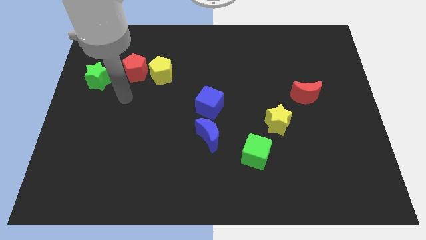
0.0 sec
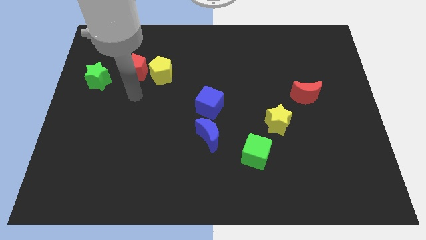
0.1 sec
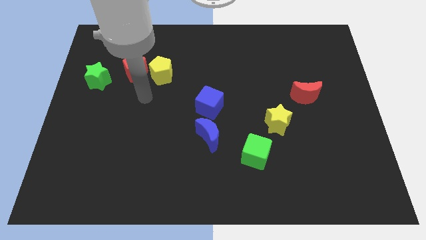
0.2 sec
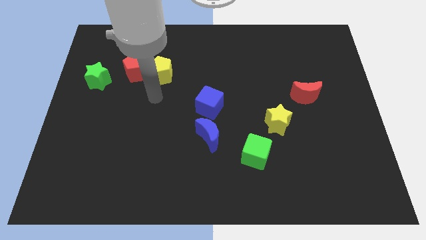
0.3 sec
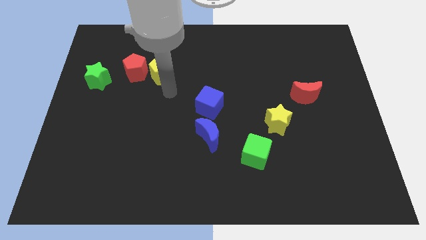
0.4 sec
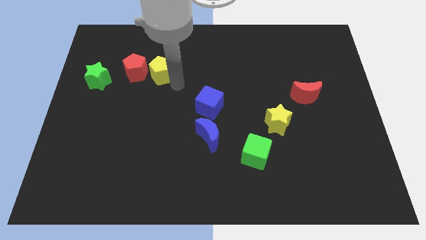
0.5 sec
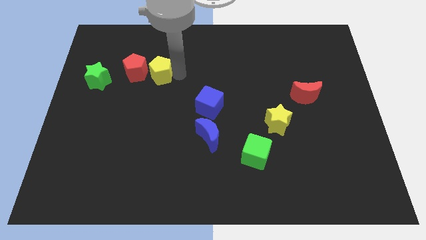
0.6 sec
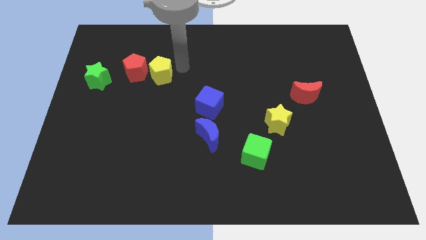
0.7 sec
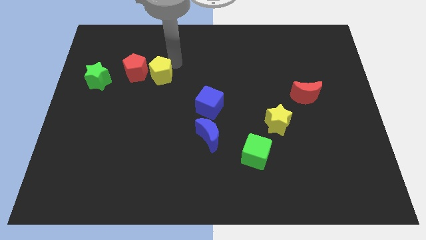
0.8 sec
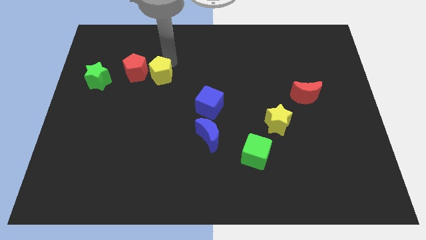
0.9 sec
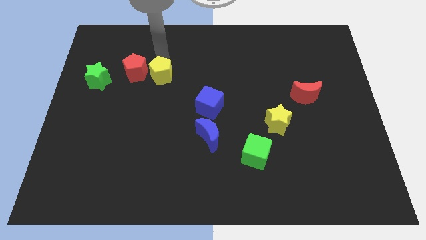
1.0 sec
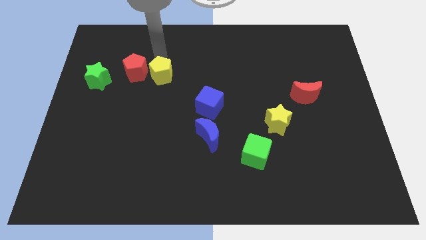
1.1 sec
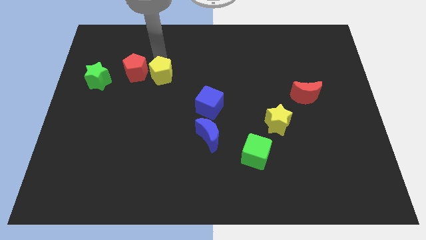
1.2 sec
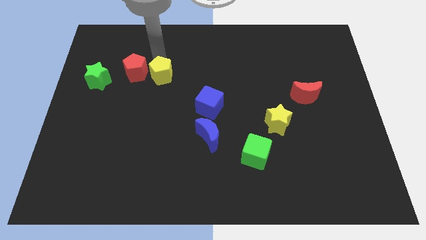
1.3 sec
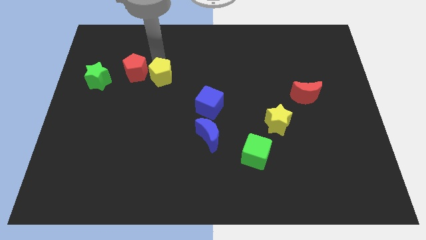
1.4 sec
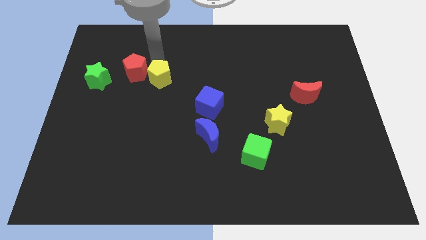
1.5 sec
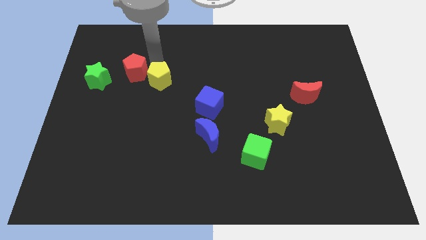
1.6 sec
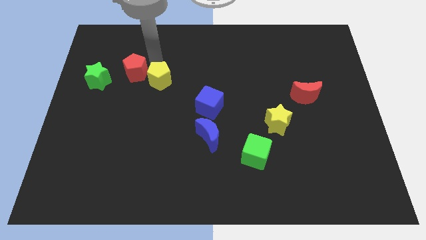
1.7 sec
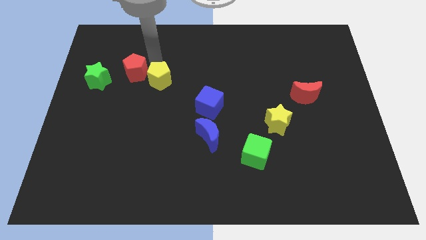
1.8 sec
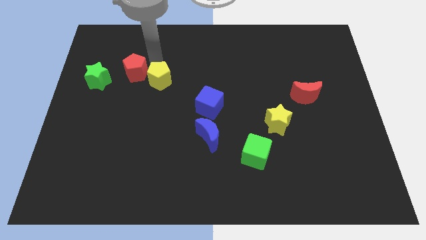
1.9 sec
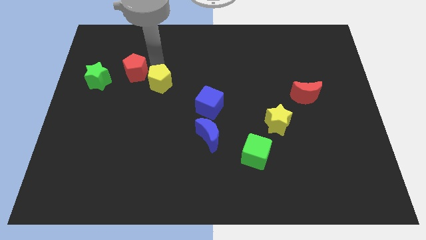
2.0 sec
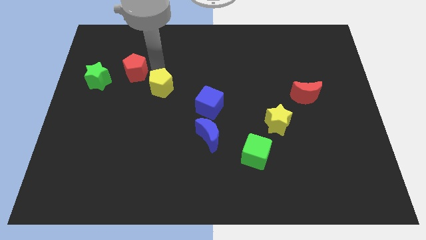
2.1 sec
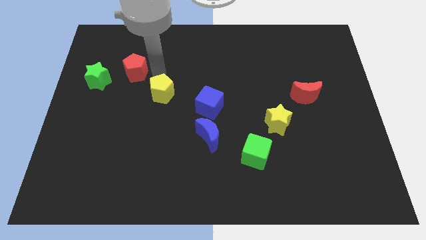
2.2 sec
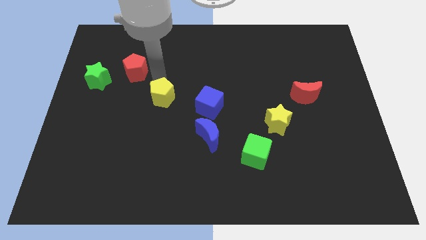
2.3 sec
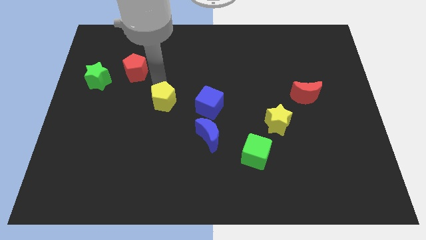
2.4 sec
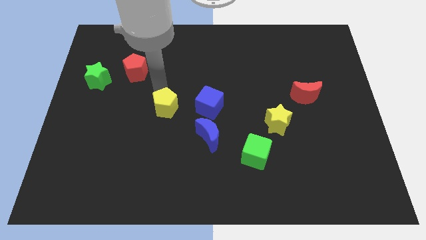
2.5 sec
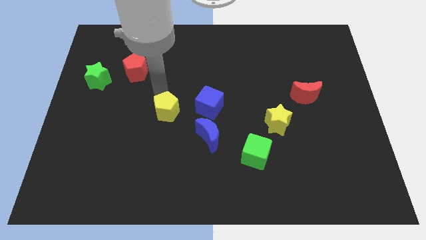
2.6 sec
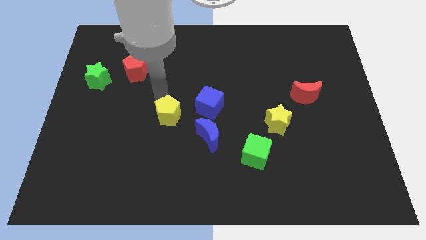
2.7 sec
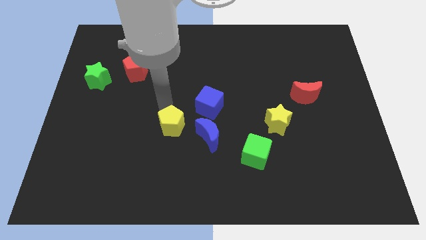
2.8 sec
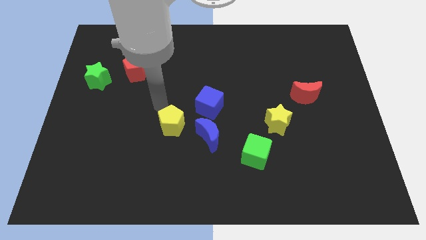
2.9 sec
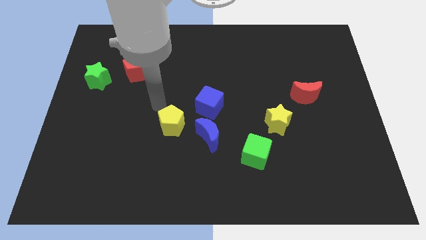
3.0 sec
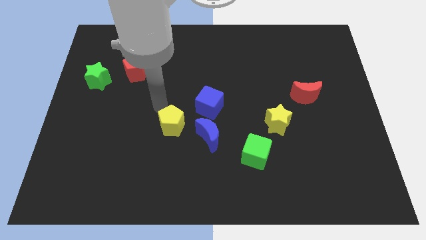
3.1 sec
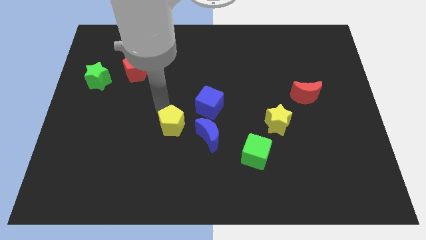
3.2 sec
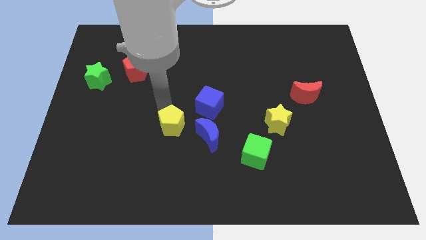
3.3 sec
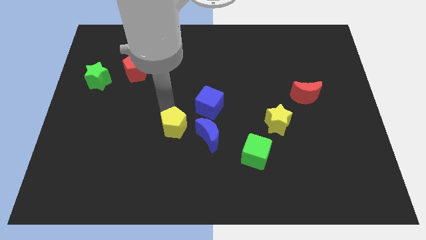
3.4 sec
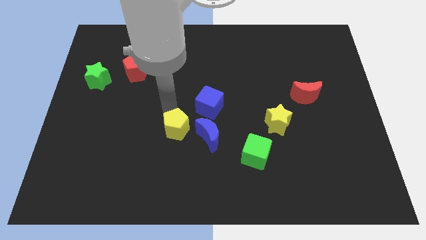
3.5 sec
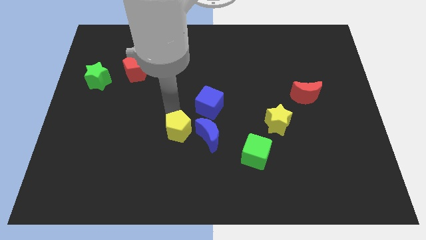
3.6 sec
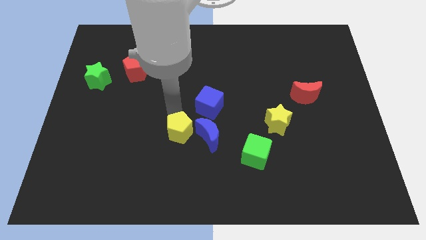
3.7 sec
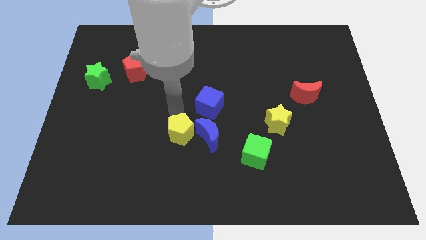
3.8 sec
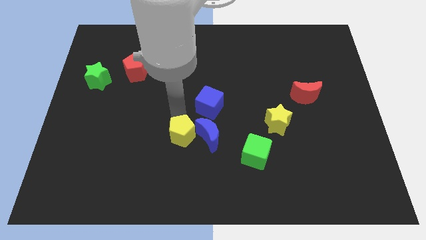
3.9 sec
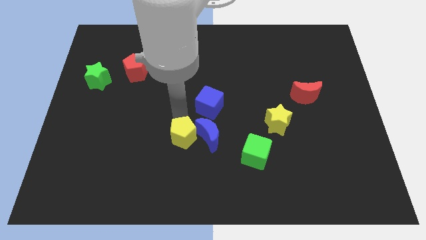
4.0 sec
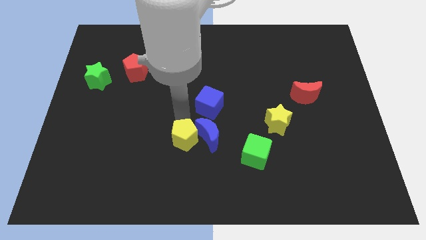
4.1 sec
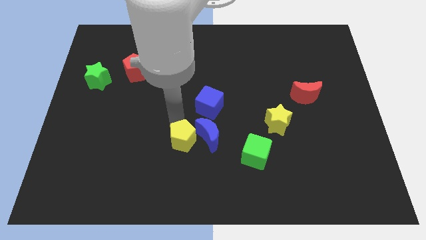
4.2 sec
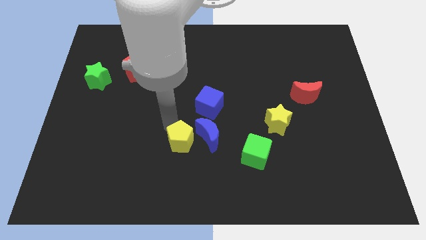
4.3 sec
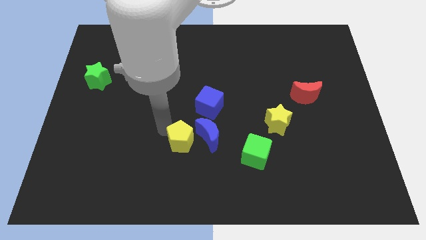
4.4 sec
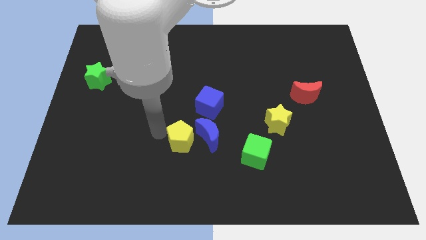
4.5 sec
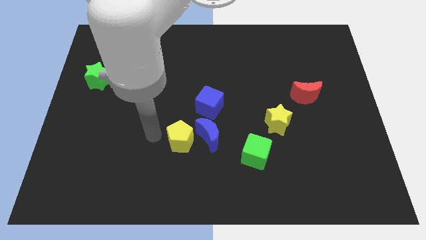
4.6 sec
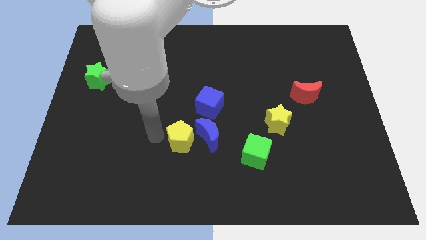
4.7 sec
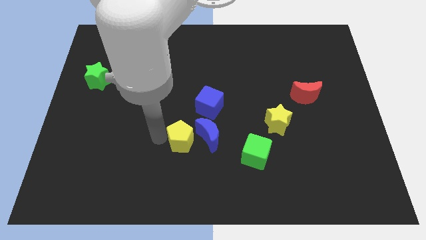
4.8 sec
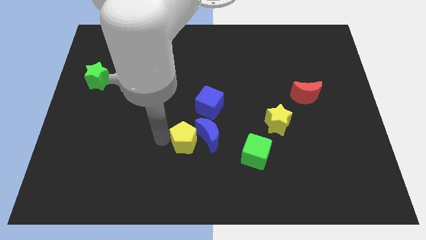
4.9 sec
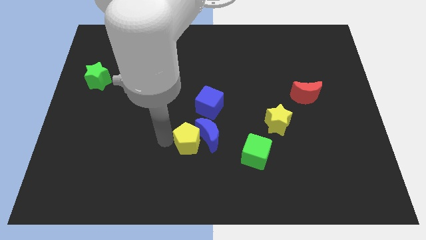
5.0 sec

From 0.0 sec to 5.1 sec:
move the yellow pentagon below the blue cube

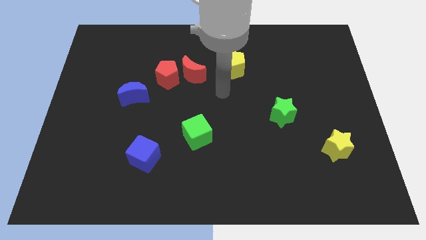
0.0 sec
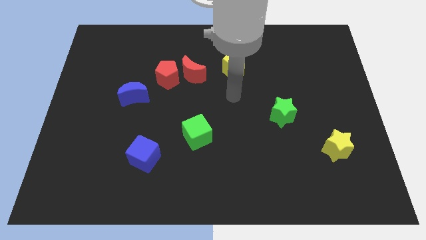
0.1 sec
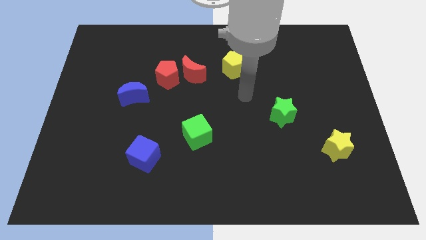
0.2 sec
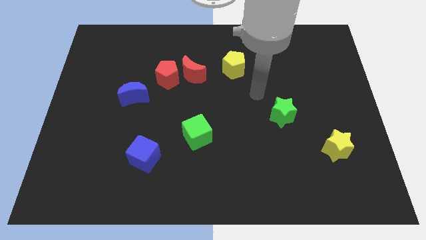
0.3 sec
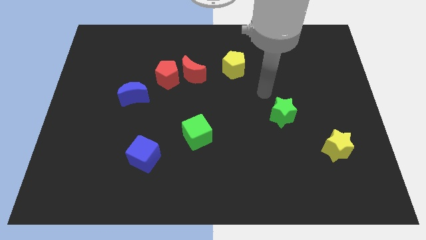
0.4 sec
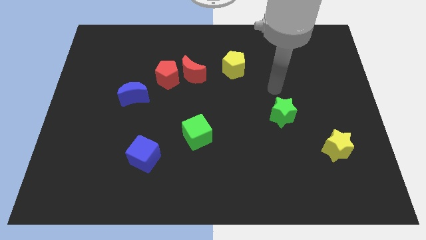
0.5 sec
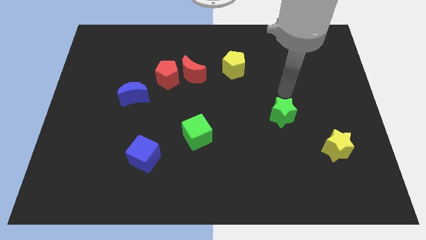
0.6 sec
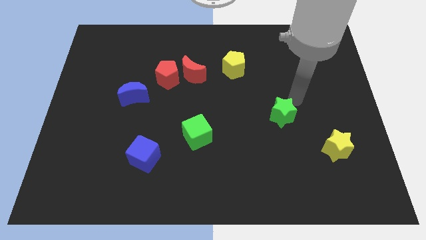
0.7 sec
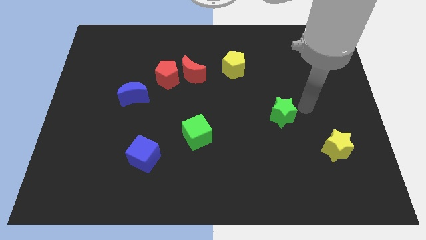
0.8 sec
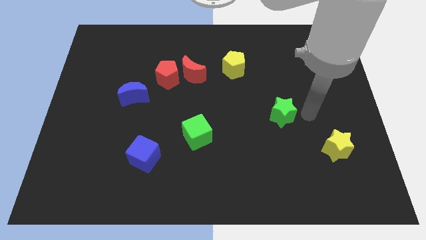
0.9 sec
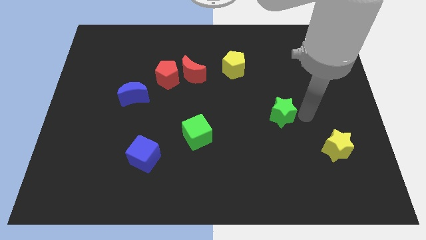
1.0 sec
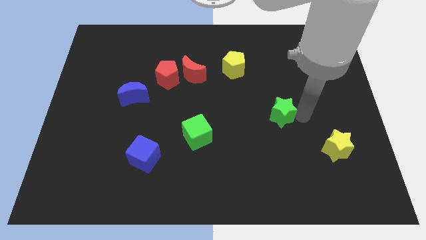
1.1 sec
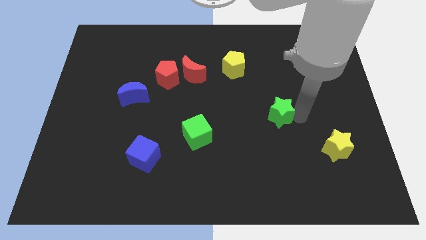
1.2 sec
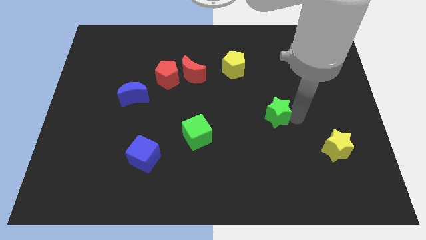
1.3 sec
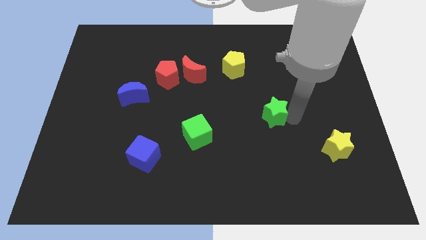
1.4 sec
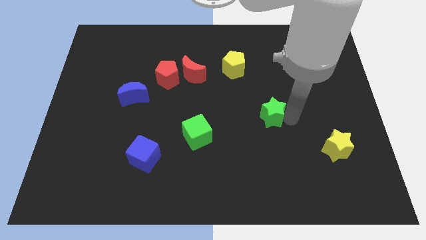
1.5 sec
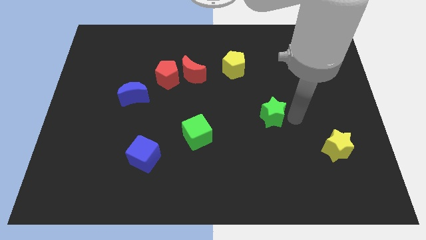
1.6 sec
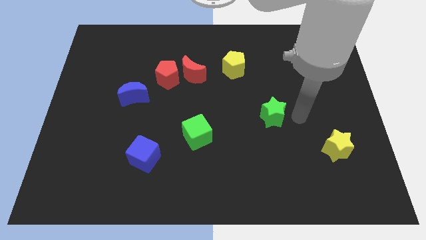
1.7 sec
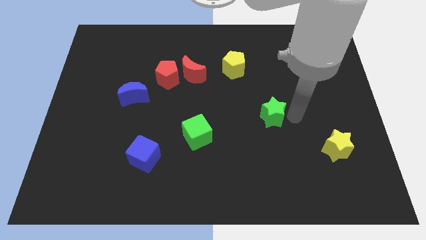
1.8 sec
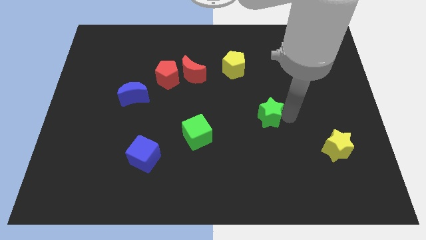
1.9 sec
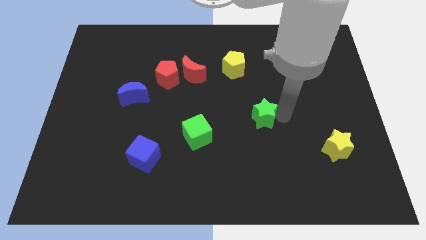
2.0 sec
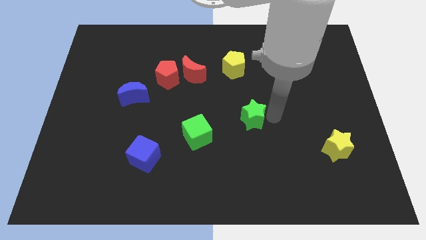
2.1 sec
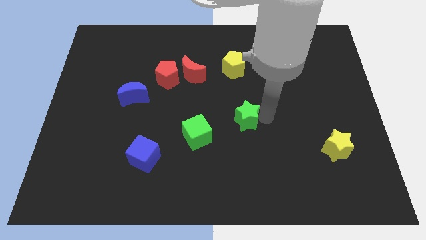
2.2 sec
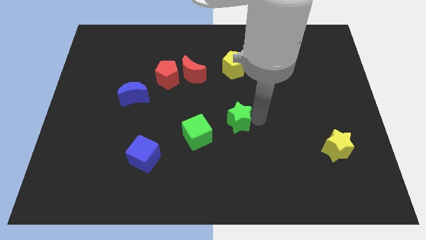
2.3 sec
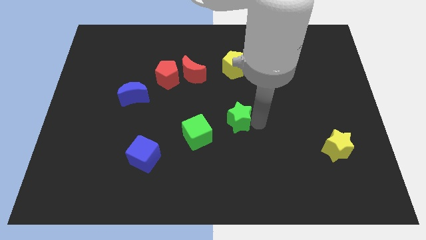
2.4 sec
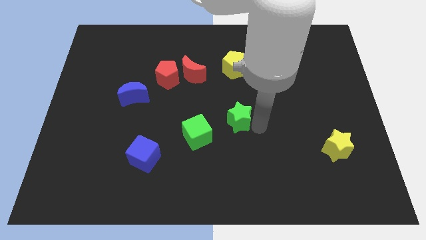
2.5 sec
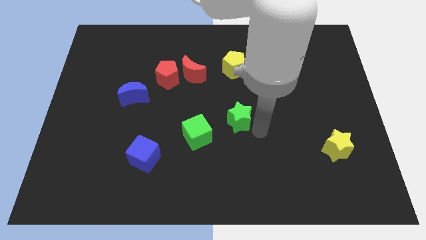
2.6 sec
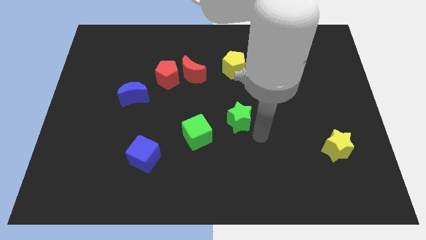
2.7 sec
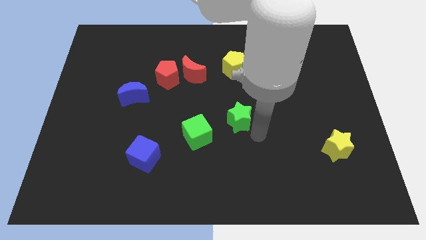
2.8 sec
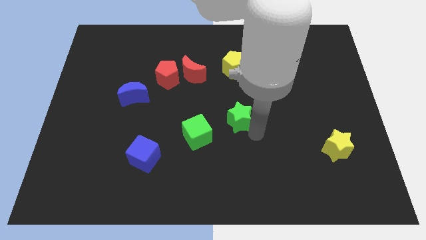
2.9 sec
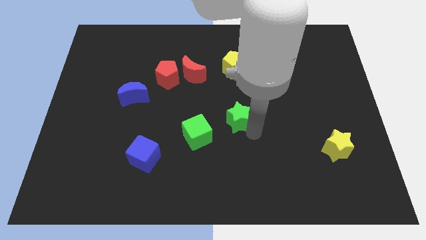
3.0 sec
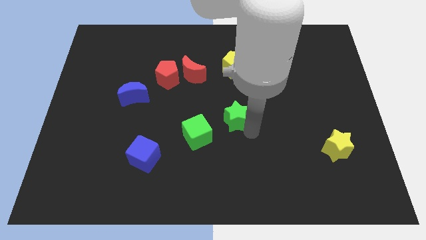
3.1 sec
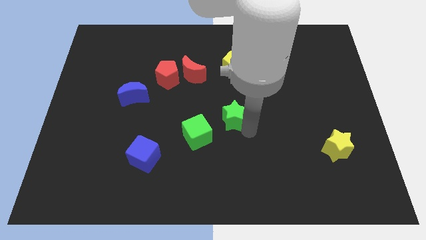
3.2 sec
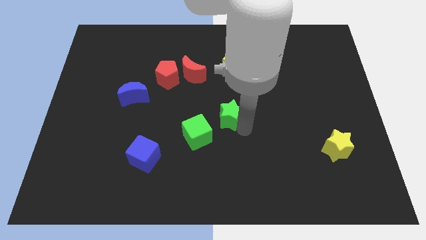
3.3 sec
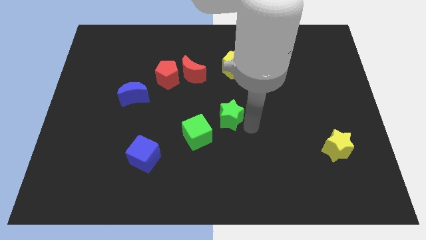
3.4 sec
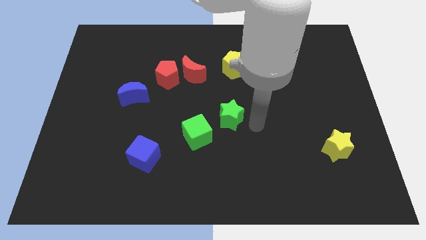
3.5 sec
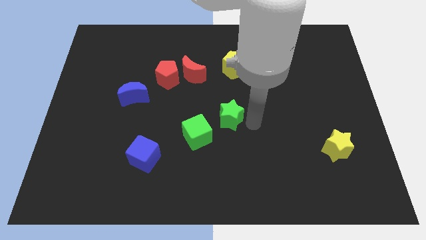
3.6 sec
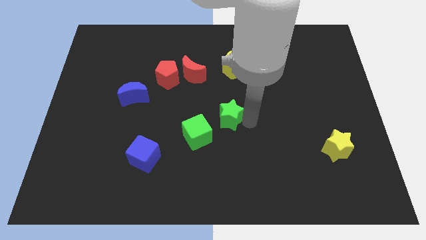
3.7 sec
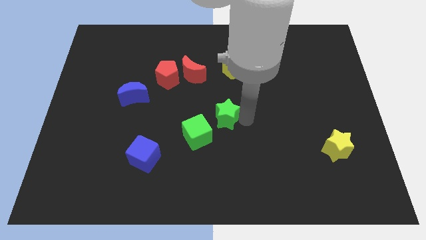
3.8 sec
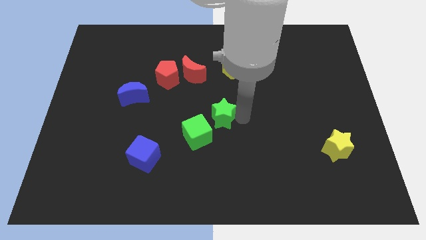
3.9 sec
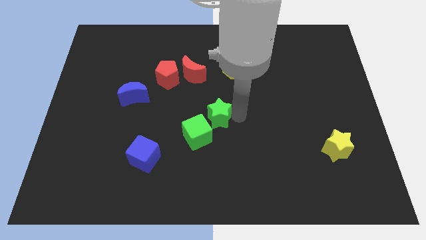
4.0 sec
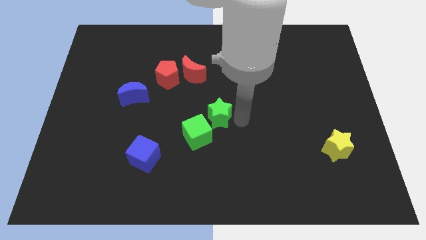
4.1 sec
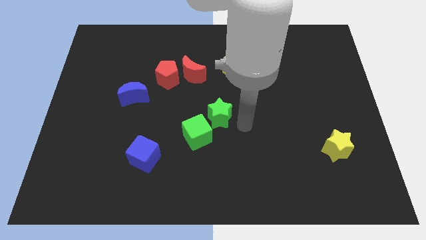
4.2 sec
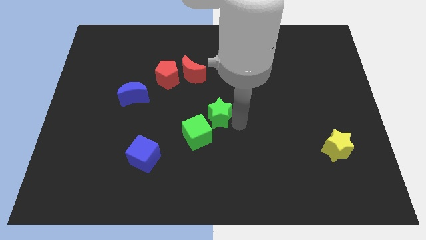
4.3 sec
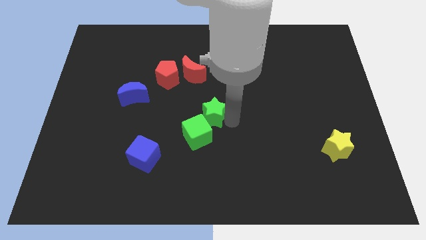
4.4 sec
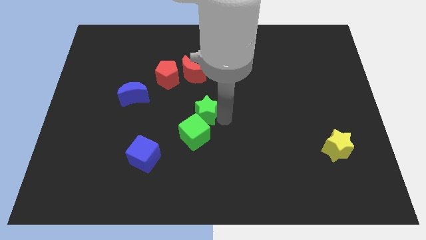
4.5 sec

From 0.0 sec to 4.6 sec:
move the green star to the bottom side of the red moon
